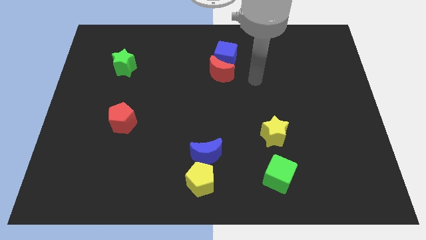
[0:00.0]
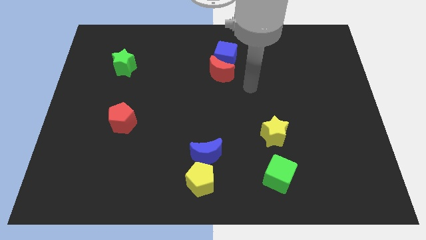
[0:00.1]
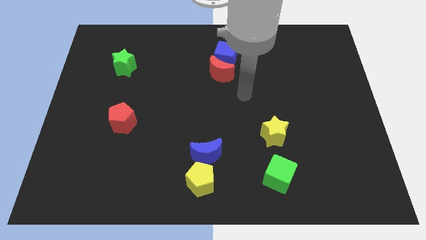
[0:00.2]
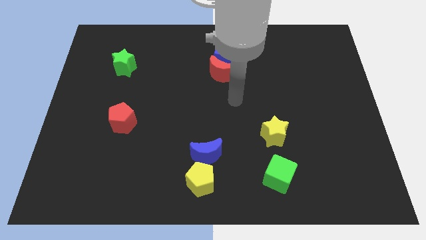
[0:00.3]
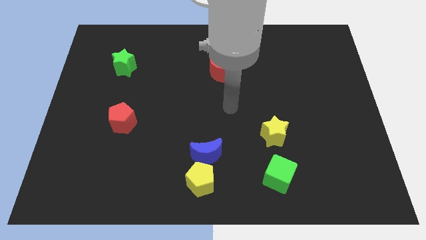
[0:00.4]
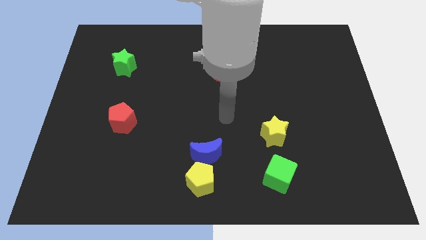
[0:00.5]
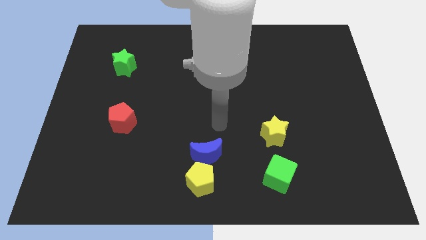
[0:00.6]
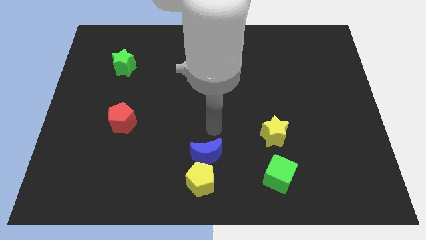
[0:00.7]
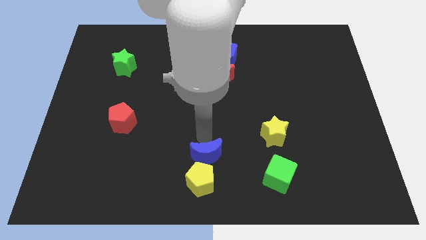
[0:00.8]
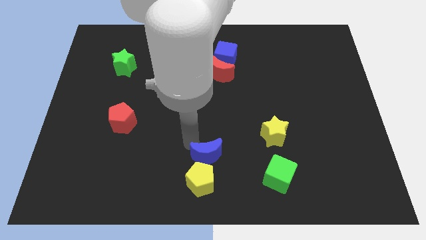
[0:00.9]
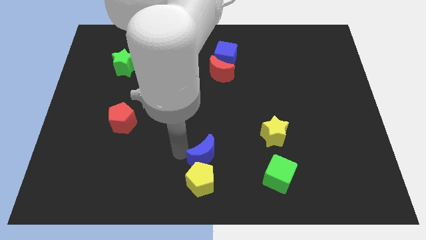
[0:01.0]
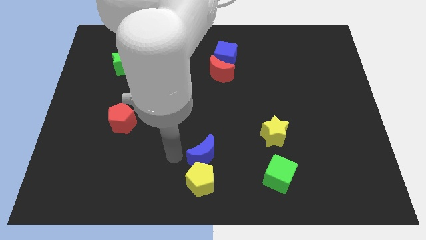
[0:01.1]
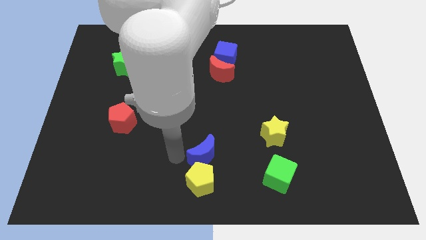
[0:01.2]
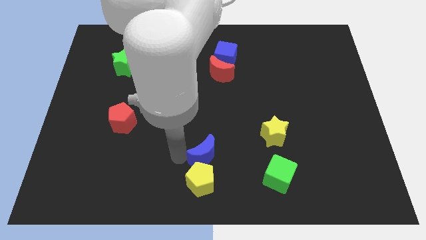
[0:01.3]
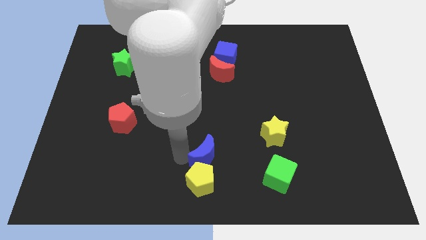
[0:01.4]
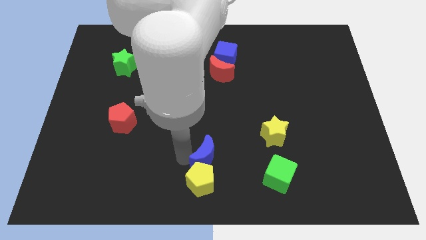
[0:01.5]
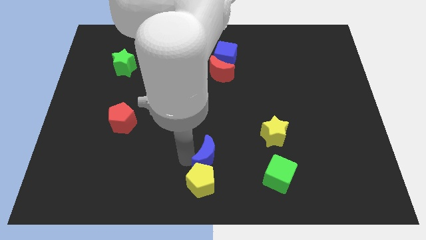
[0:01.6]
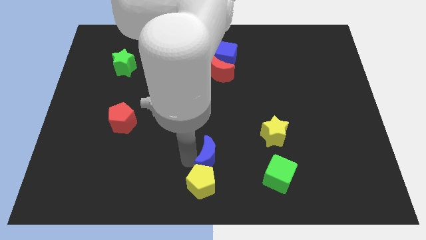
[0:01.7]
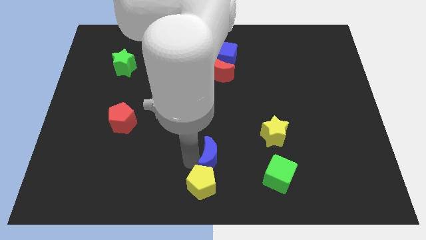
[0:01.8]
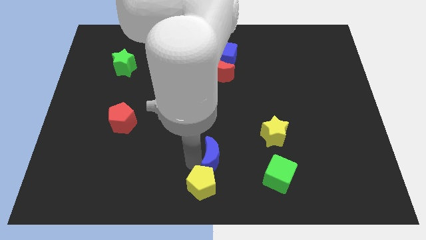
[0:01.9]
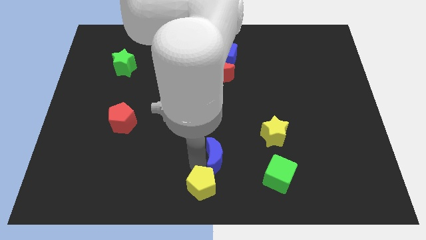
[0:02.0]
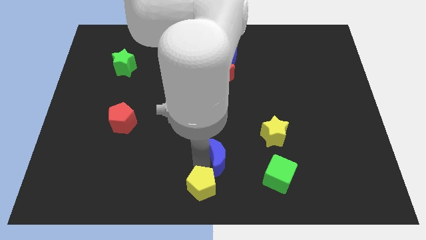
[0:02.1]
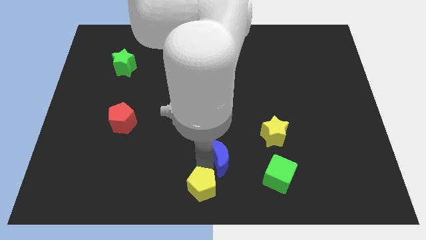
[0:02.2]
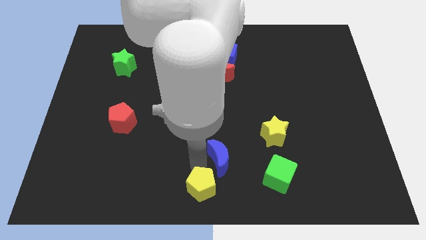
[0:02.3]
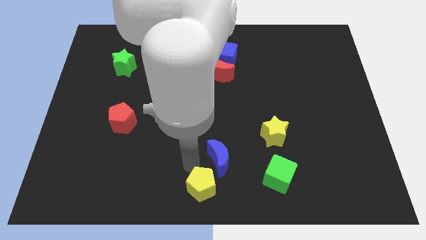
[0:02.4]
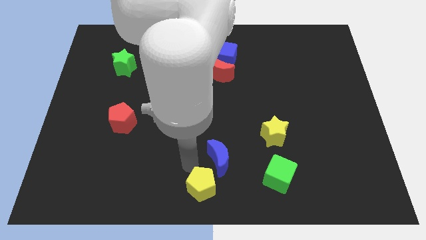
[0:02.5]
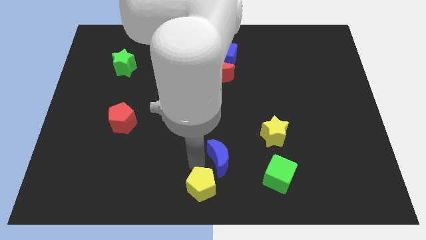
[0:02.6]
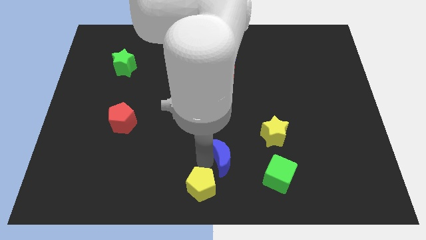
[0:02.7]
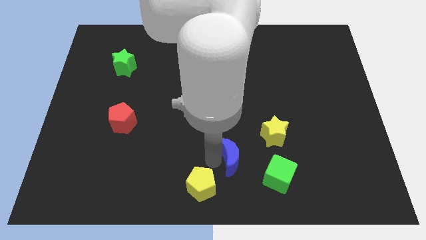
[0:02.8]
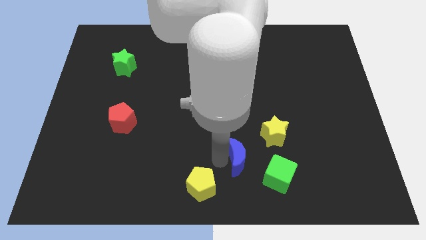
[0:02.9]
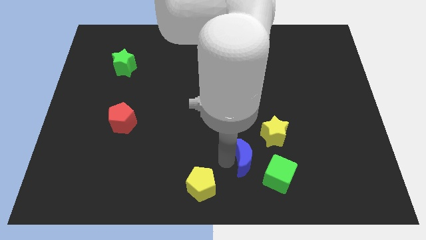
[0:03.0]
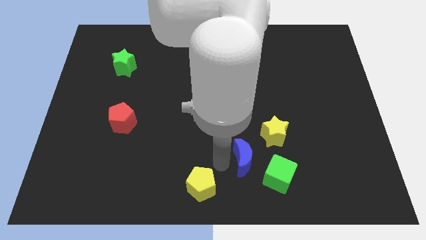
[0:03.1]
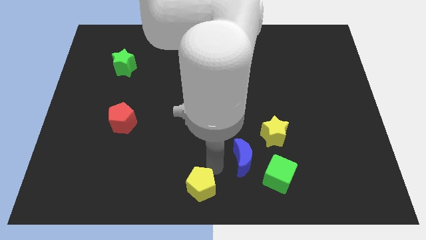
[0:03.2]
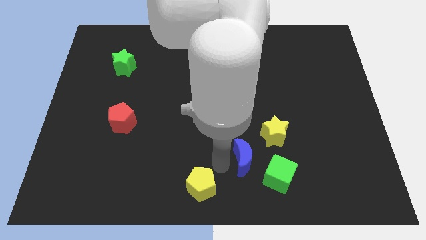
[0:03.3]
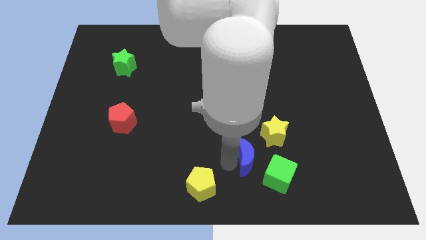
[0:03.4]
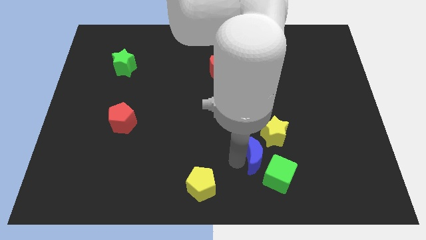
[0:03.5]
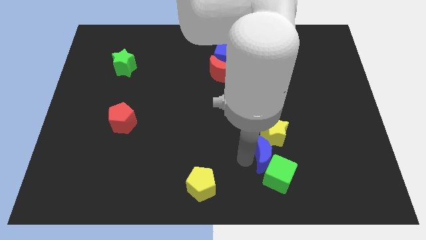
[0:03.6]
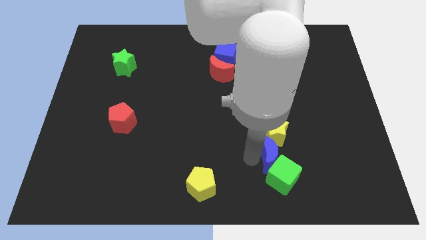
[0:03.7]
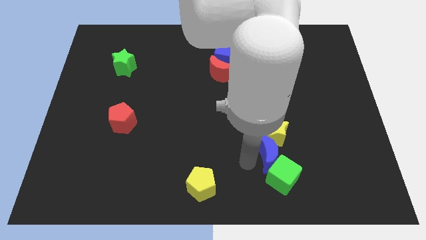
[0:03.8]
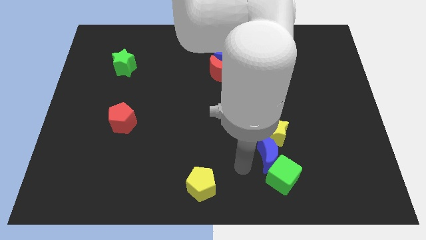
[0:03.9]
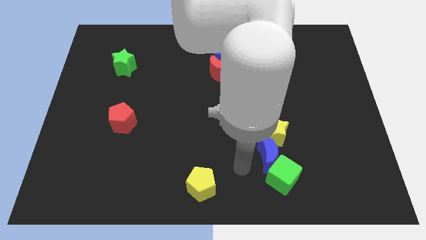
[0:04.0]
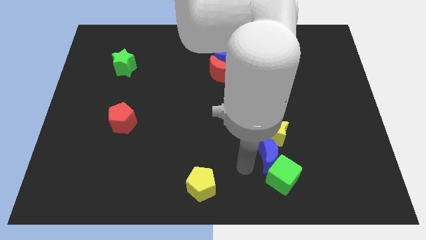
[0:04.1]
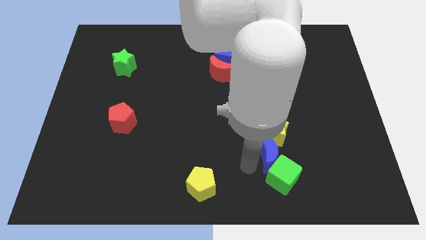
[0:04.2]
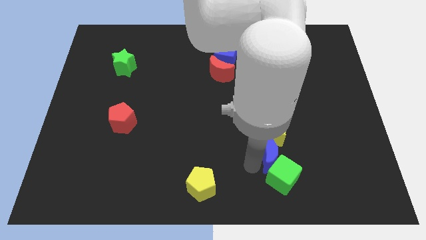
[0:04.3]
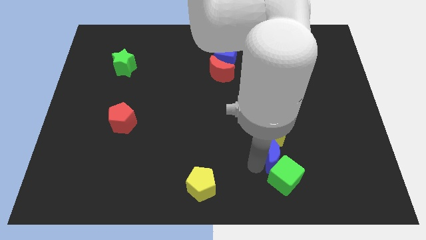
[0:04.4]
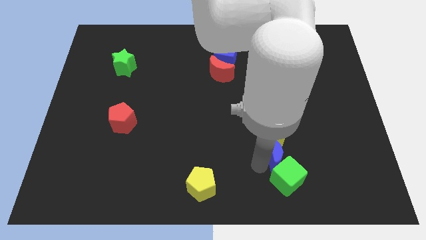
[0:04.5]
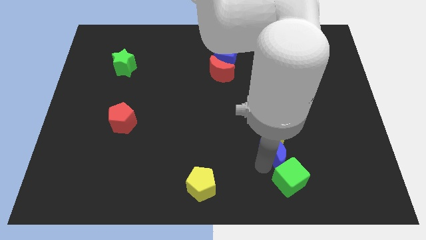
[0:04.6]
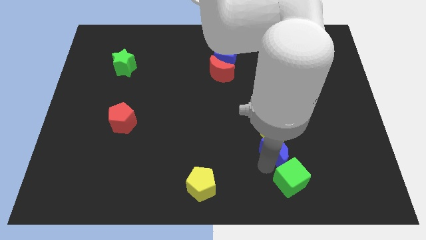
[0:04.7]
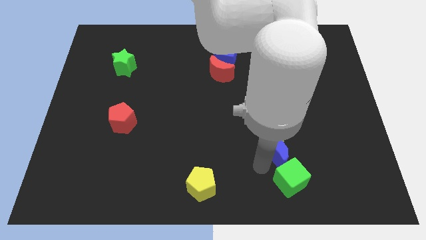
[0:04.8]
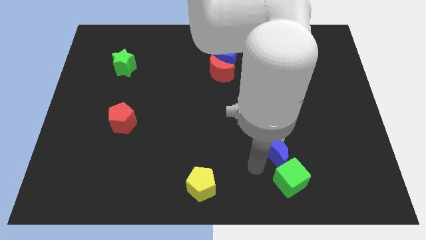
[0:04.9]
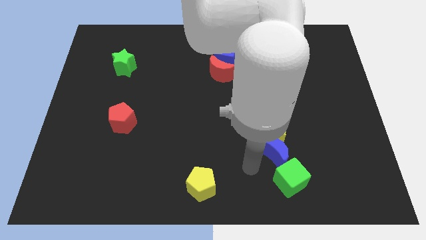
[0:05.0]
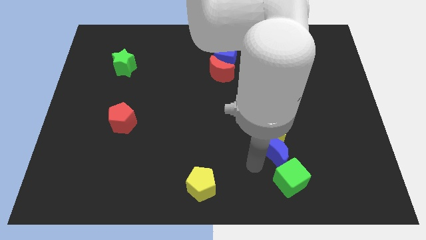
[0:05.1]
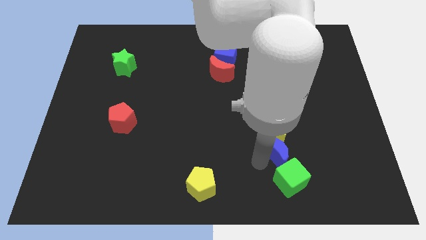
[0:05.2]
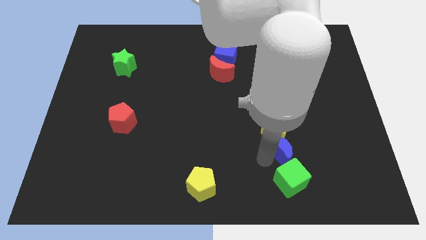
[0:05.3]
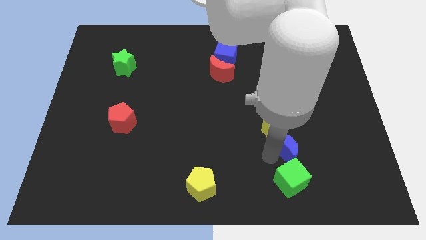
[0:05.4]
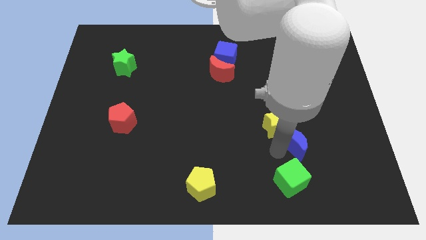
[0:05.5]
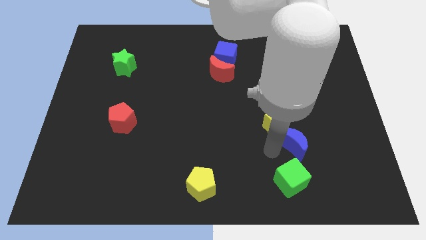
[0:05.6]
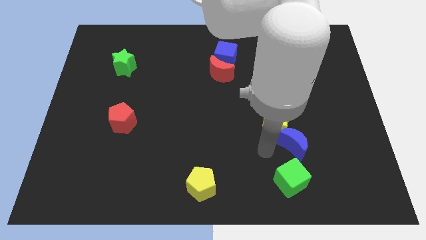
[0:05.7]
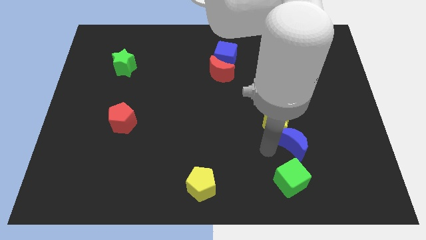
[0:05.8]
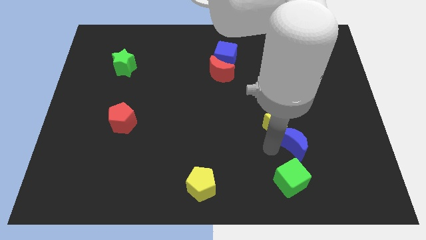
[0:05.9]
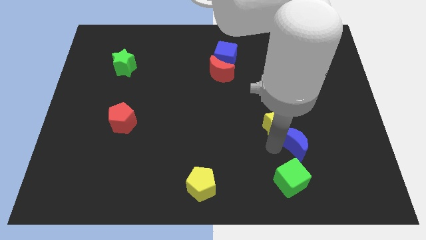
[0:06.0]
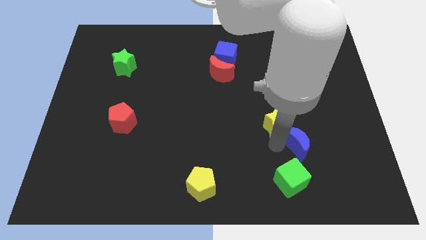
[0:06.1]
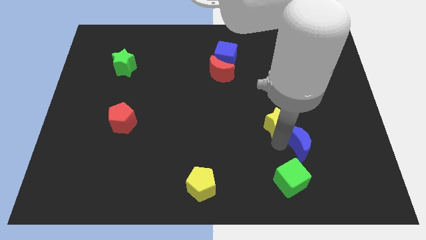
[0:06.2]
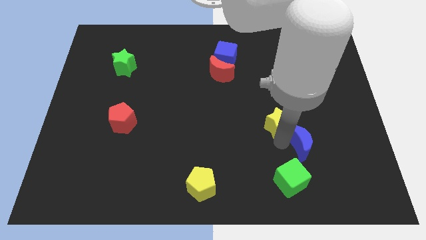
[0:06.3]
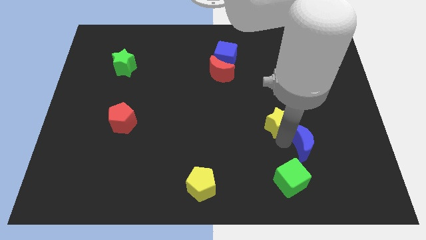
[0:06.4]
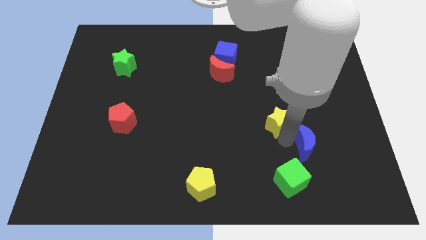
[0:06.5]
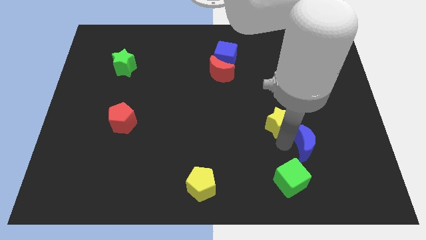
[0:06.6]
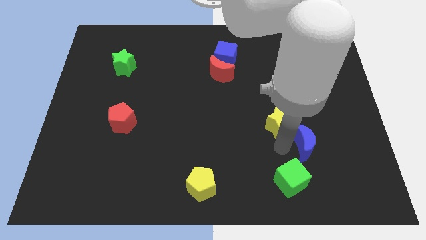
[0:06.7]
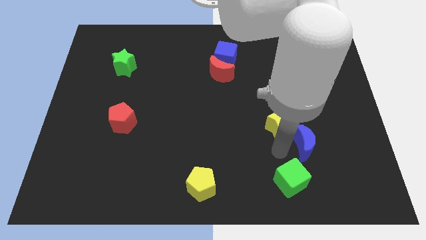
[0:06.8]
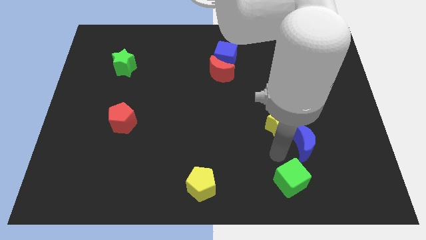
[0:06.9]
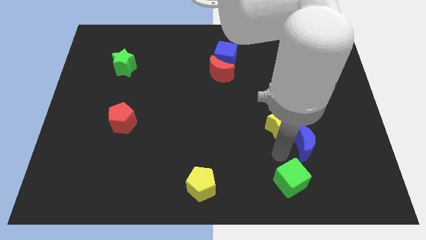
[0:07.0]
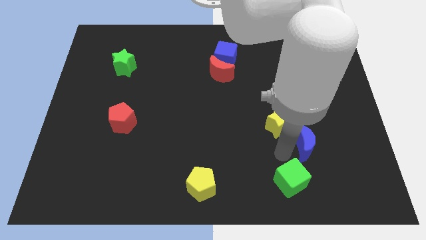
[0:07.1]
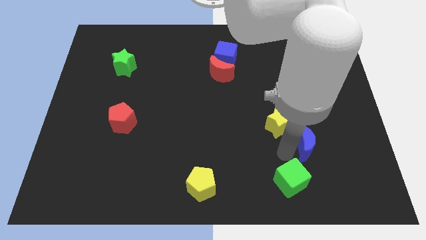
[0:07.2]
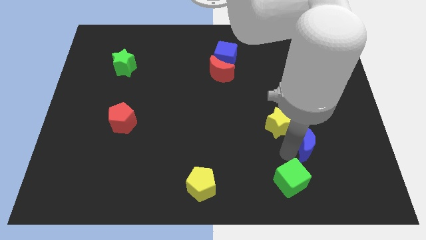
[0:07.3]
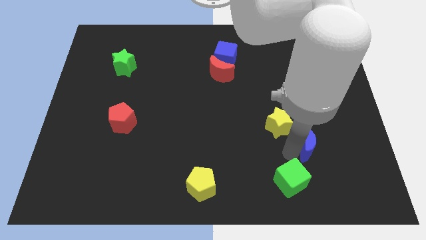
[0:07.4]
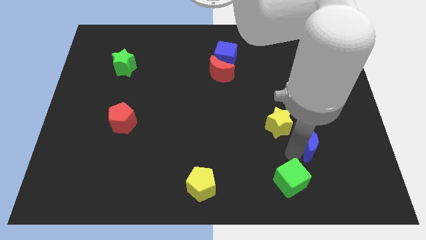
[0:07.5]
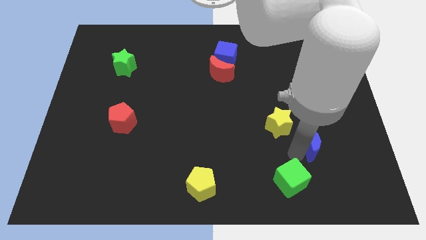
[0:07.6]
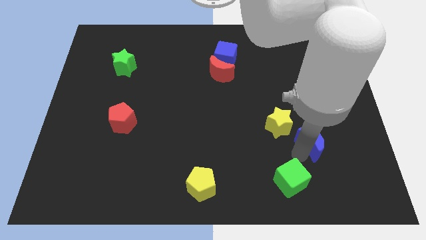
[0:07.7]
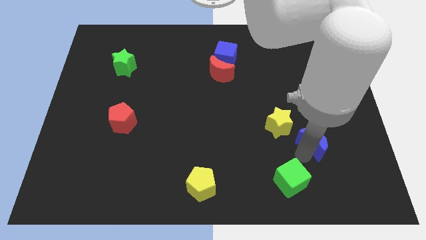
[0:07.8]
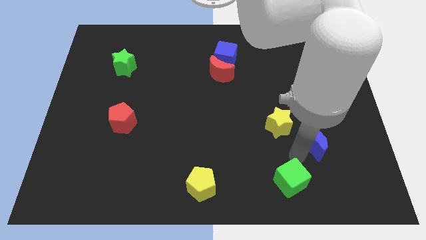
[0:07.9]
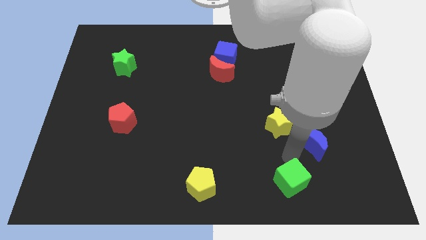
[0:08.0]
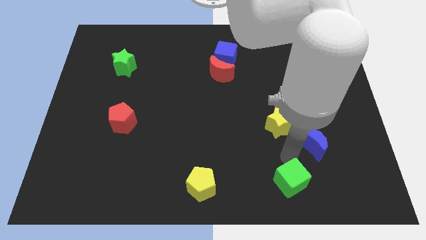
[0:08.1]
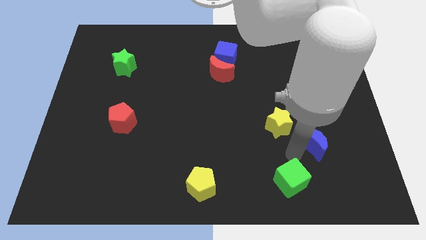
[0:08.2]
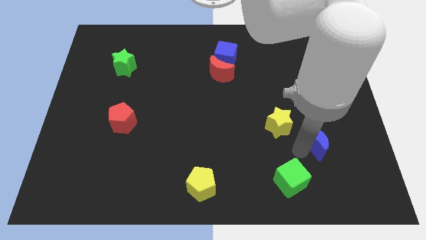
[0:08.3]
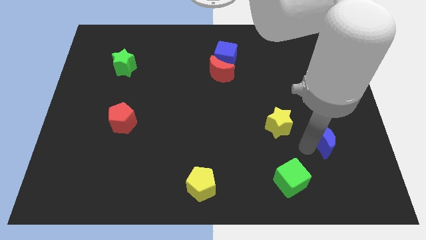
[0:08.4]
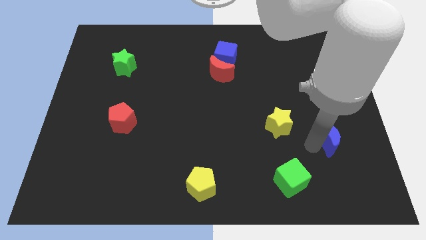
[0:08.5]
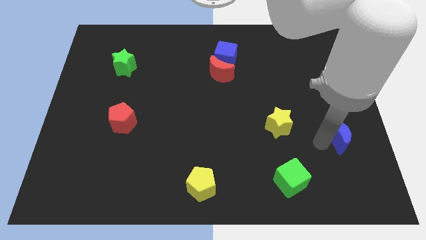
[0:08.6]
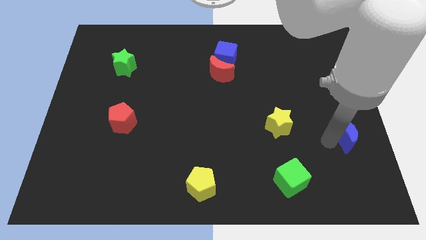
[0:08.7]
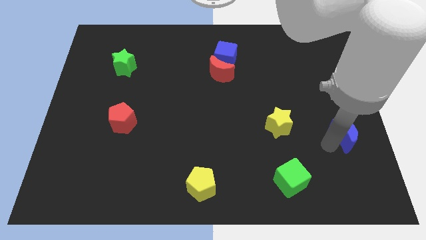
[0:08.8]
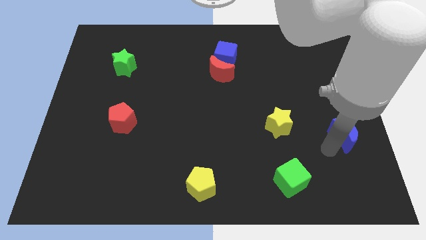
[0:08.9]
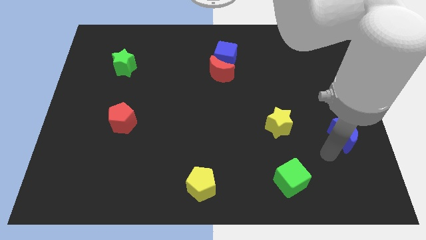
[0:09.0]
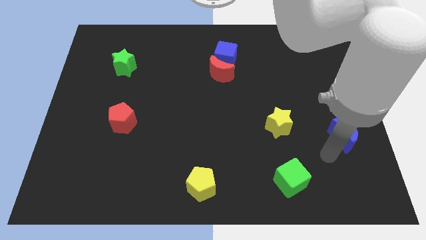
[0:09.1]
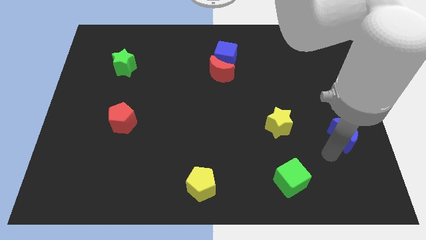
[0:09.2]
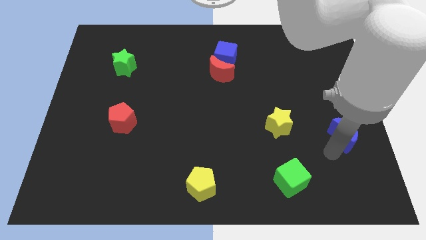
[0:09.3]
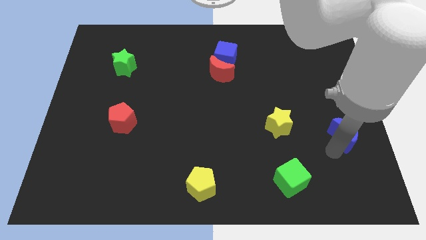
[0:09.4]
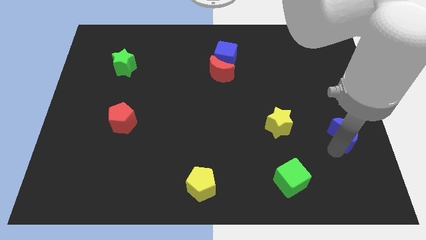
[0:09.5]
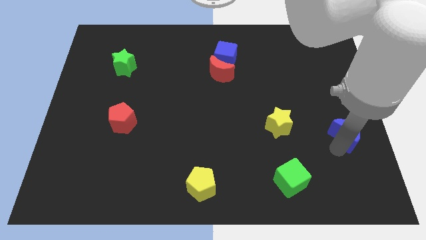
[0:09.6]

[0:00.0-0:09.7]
push the blue moon to the center right
